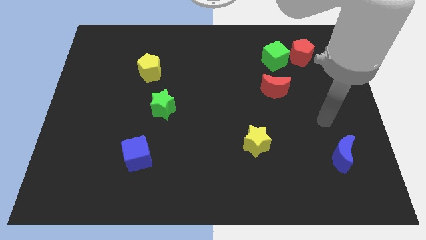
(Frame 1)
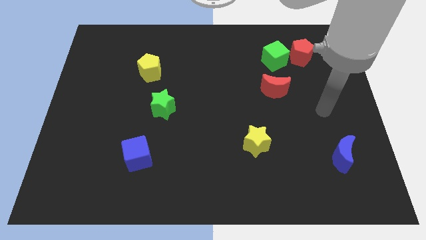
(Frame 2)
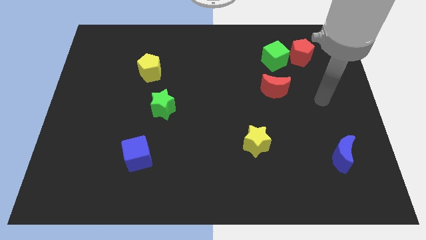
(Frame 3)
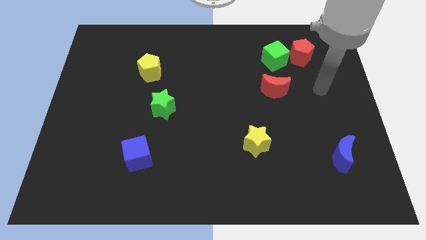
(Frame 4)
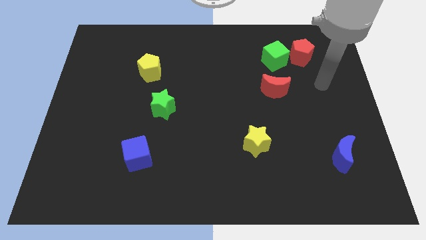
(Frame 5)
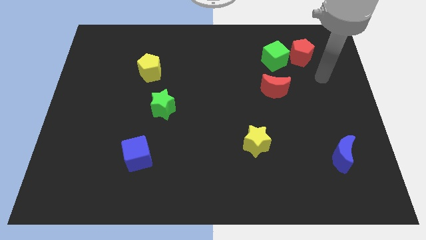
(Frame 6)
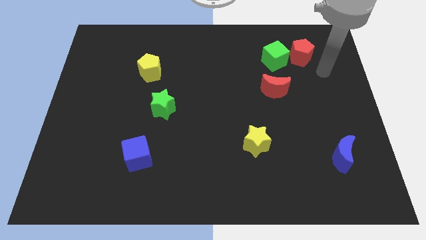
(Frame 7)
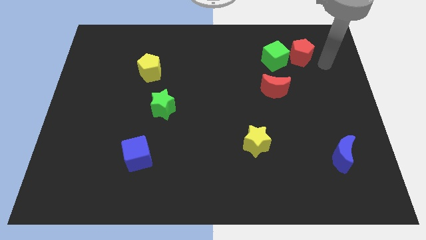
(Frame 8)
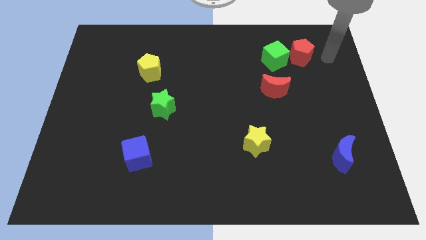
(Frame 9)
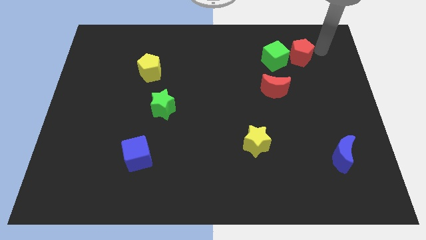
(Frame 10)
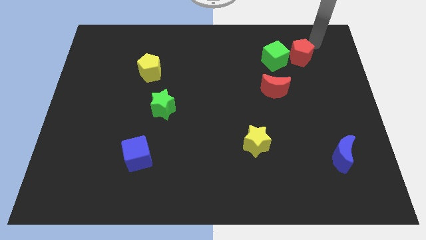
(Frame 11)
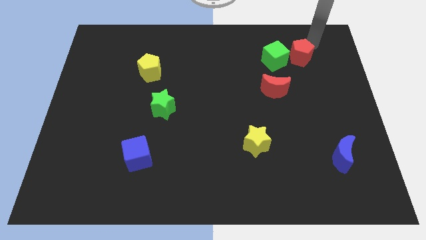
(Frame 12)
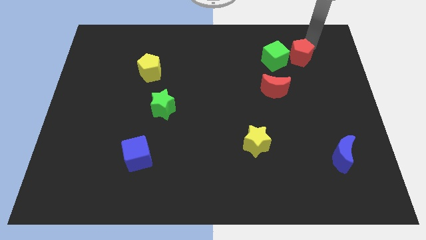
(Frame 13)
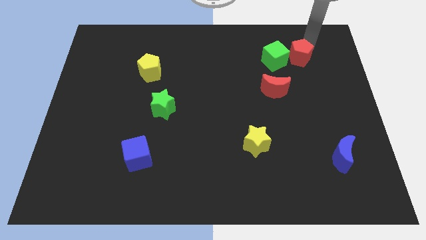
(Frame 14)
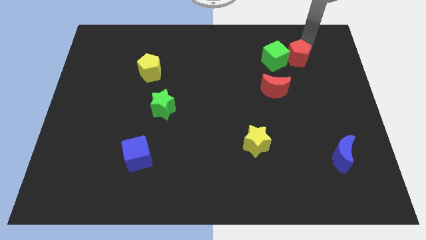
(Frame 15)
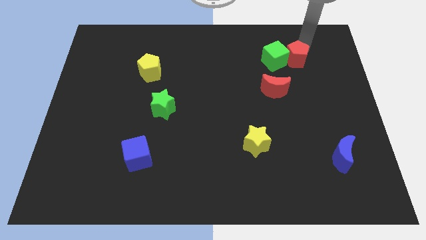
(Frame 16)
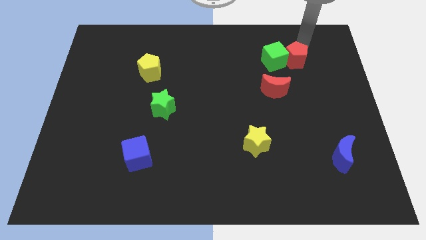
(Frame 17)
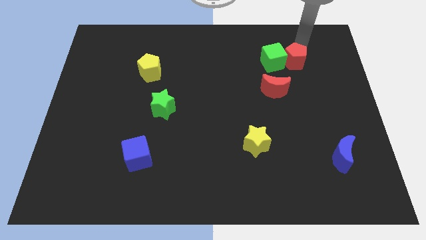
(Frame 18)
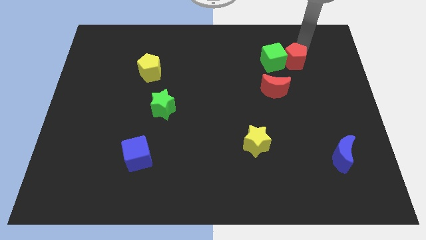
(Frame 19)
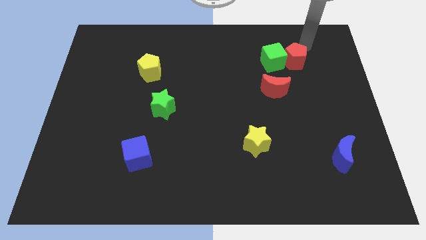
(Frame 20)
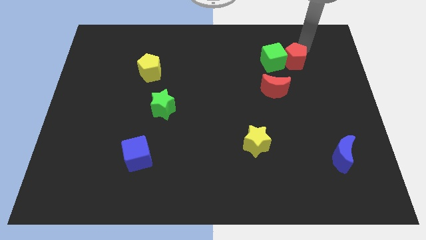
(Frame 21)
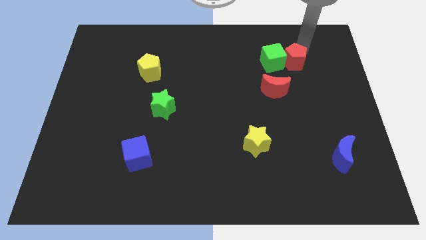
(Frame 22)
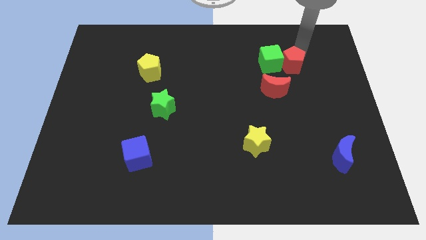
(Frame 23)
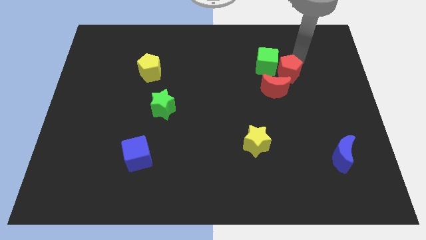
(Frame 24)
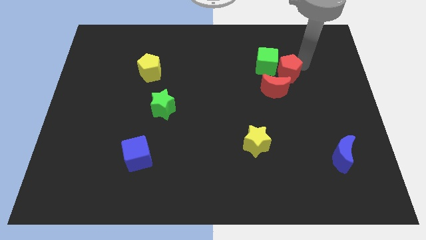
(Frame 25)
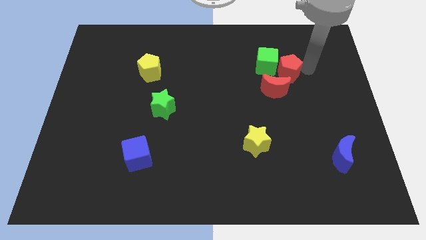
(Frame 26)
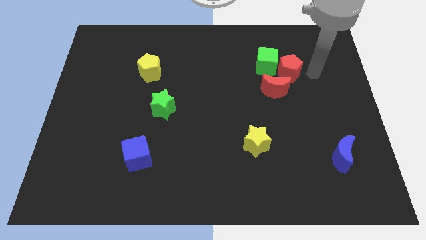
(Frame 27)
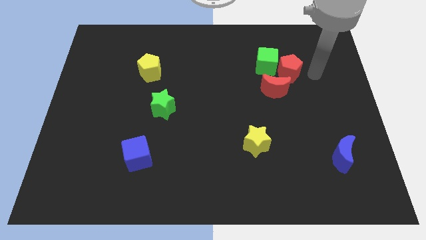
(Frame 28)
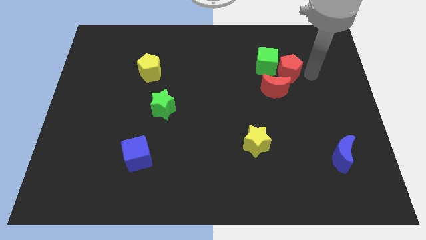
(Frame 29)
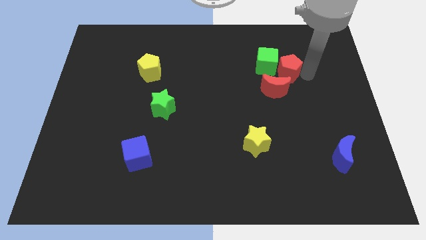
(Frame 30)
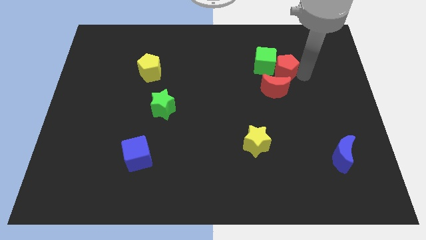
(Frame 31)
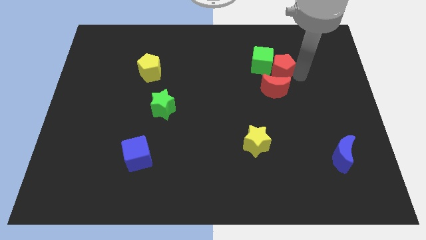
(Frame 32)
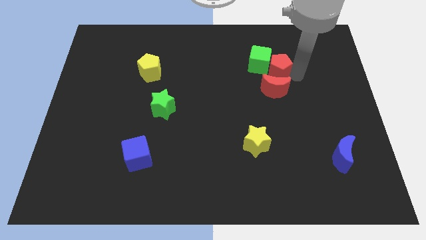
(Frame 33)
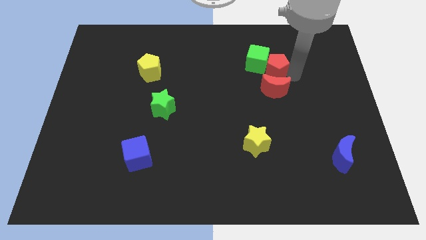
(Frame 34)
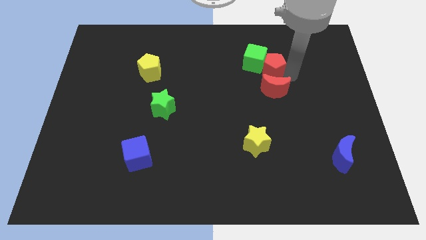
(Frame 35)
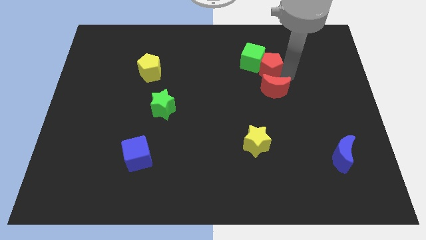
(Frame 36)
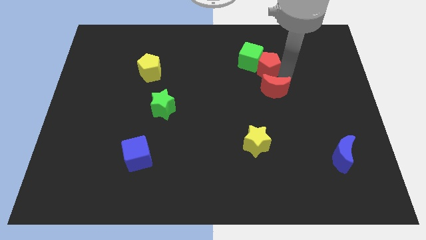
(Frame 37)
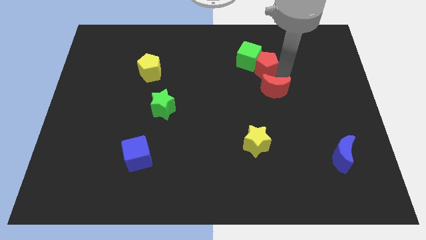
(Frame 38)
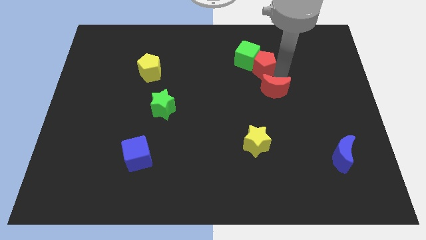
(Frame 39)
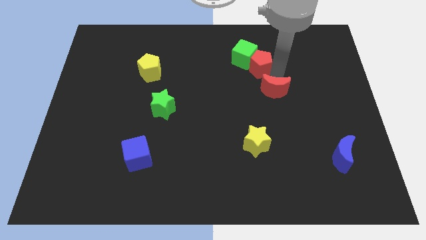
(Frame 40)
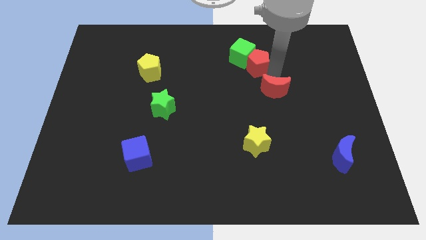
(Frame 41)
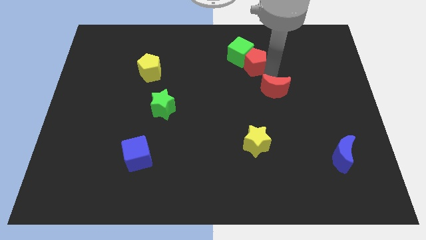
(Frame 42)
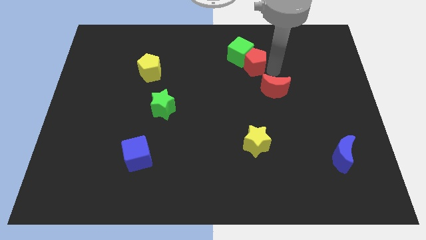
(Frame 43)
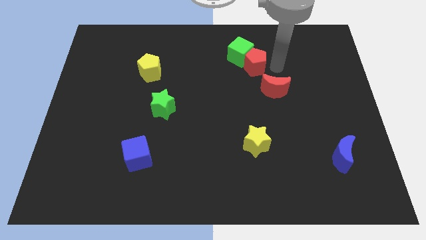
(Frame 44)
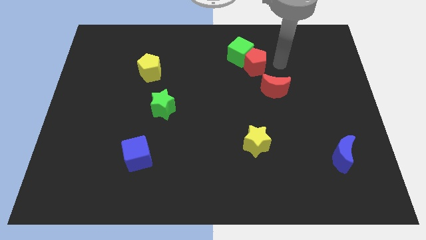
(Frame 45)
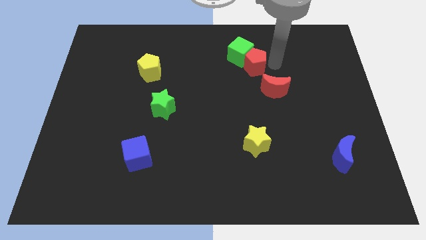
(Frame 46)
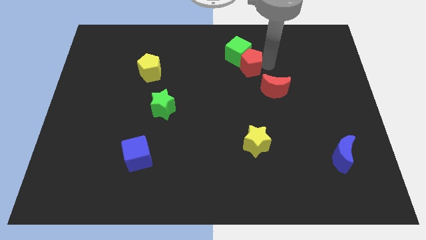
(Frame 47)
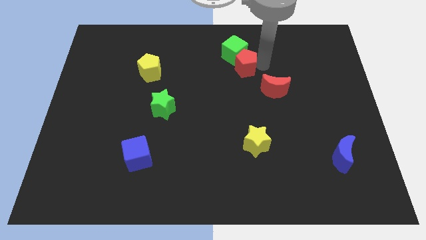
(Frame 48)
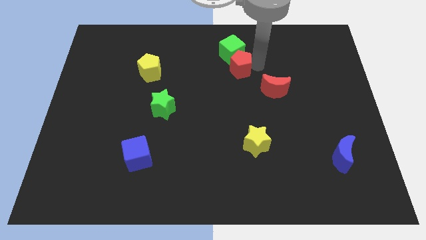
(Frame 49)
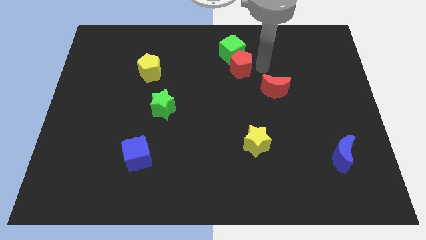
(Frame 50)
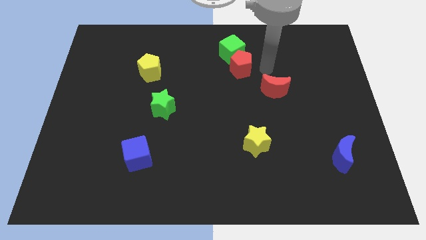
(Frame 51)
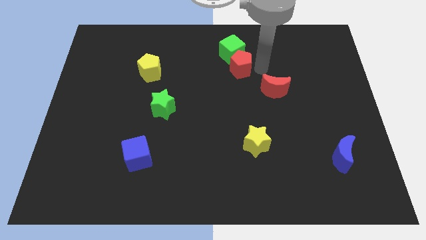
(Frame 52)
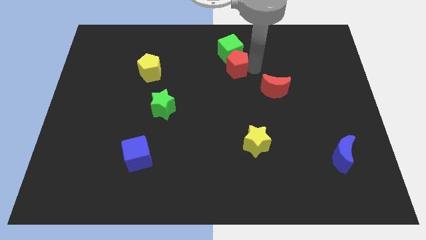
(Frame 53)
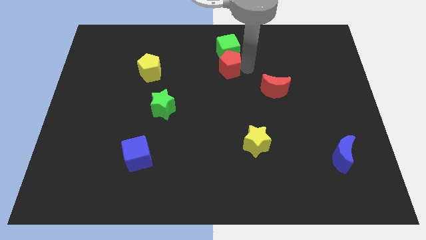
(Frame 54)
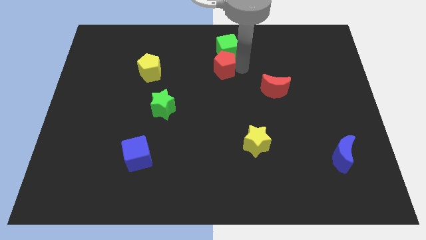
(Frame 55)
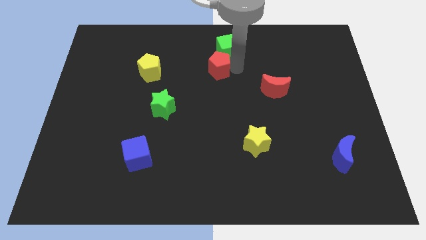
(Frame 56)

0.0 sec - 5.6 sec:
move the red pentagon to the left

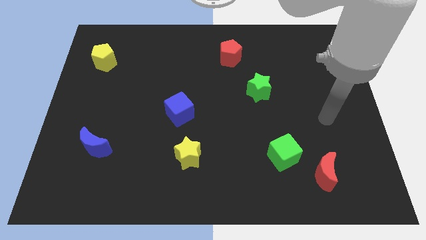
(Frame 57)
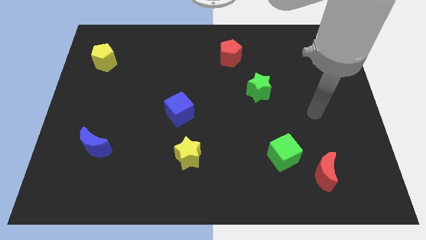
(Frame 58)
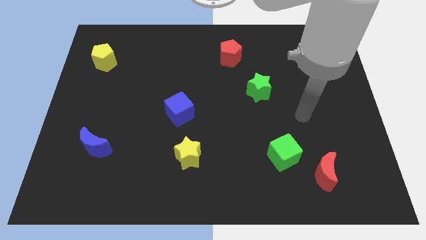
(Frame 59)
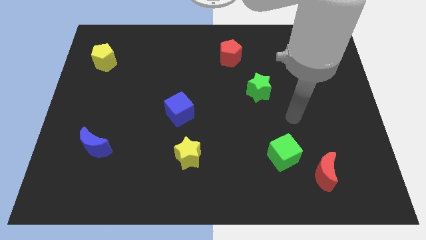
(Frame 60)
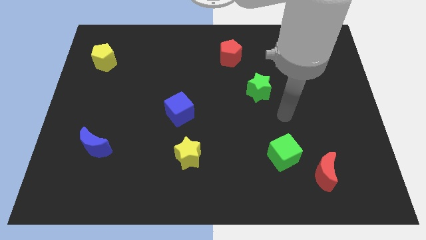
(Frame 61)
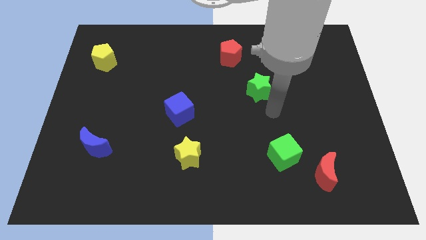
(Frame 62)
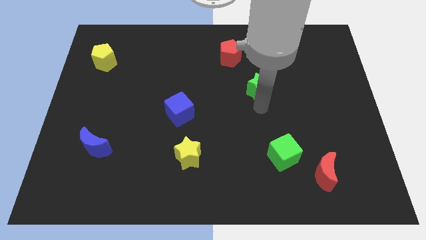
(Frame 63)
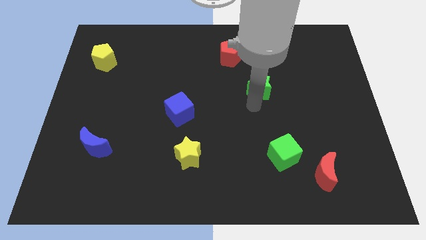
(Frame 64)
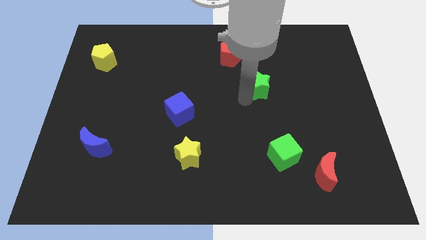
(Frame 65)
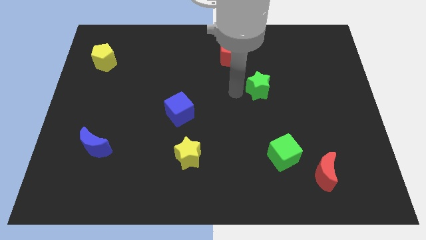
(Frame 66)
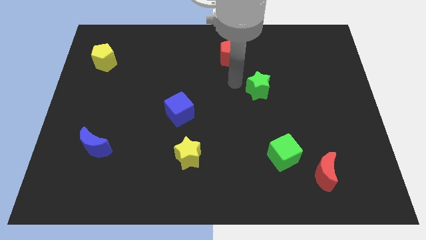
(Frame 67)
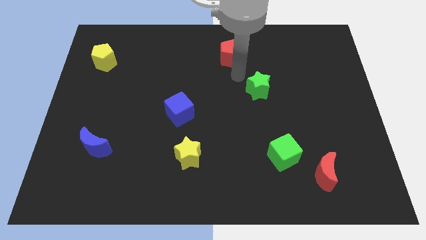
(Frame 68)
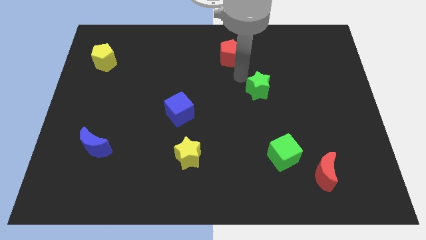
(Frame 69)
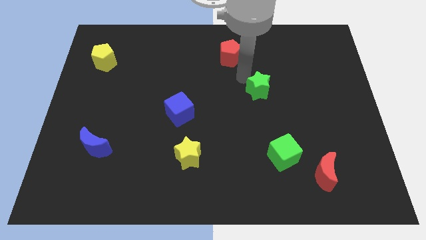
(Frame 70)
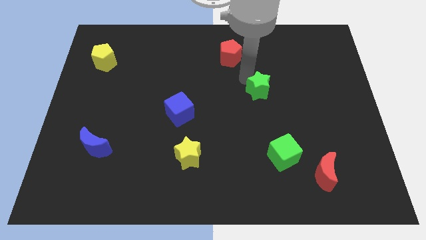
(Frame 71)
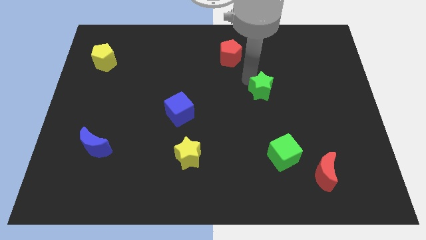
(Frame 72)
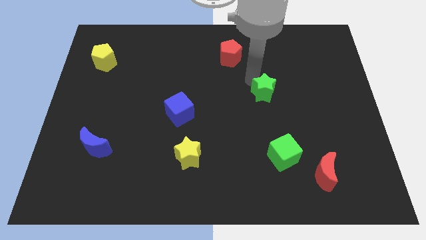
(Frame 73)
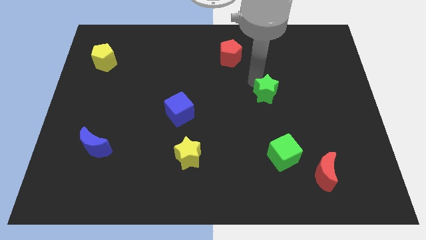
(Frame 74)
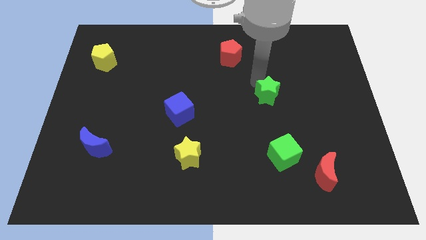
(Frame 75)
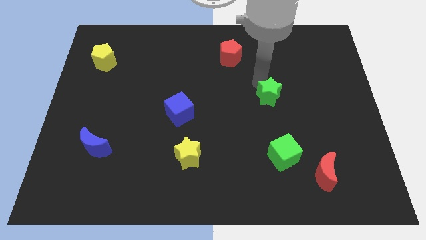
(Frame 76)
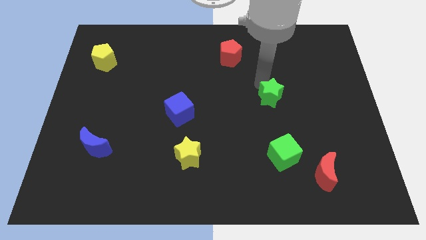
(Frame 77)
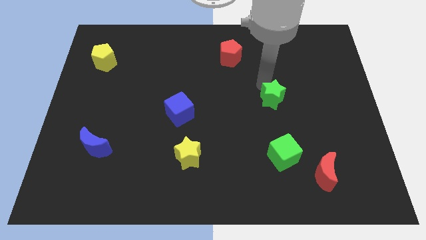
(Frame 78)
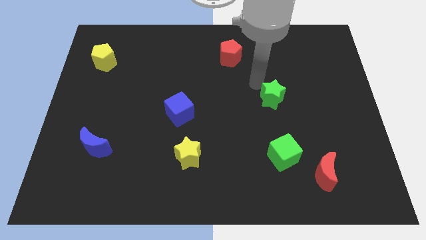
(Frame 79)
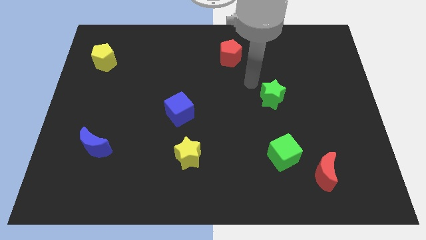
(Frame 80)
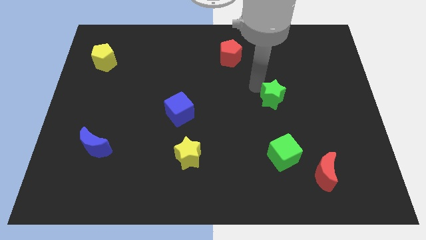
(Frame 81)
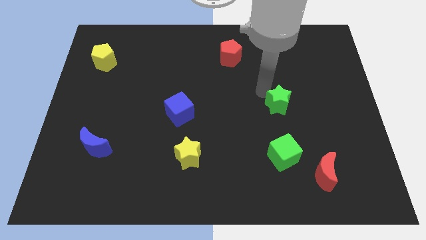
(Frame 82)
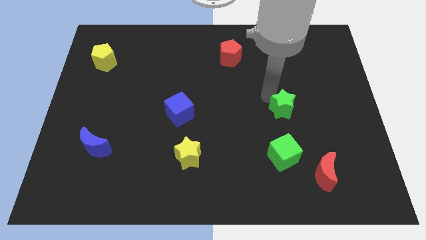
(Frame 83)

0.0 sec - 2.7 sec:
slightly move the green star down and to the right diagonally
